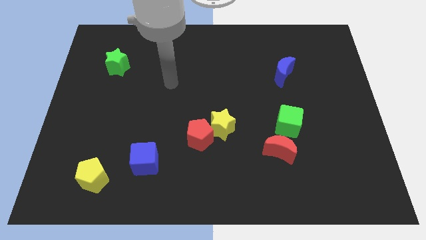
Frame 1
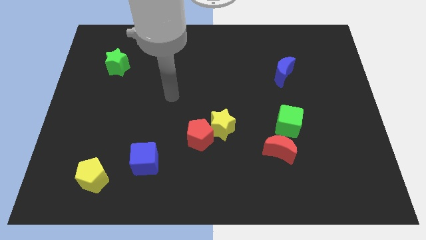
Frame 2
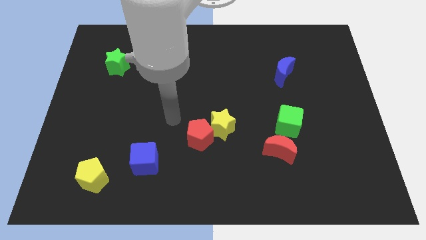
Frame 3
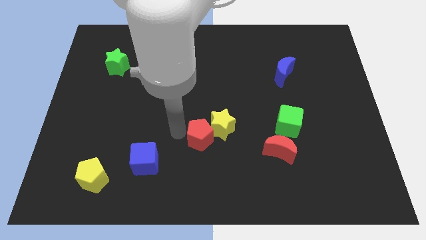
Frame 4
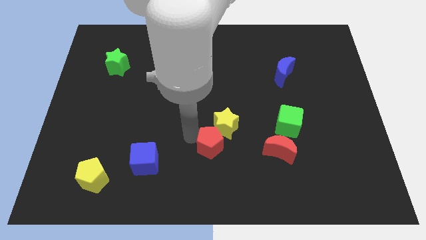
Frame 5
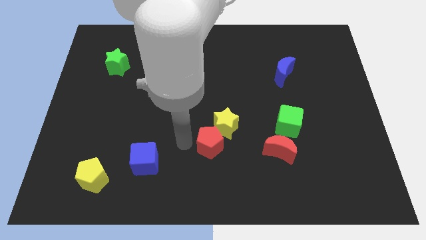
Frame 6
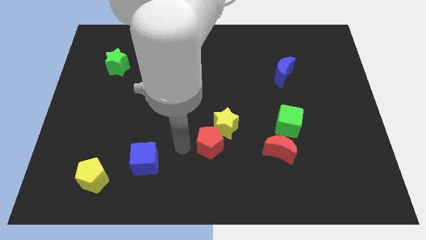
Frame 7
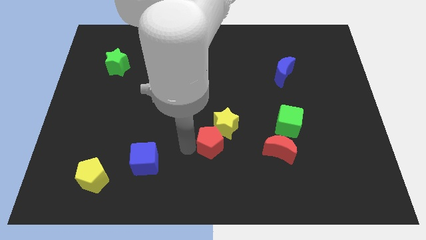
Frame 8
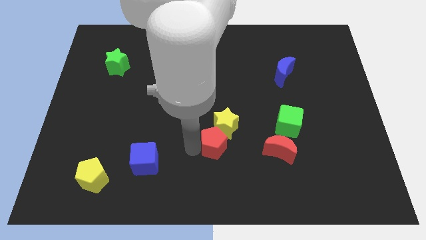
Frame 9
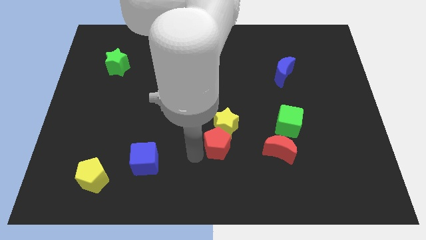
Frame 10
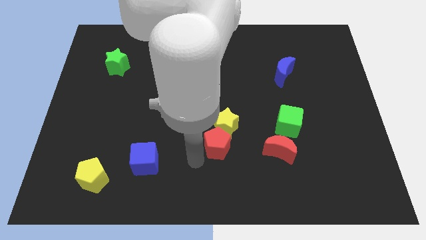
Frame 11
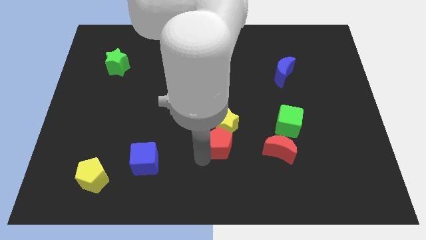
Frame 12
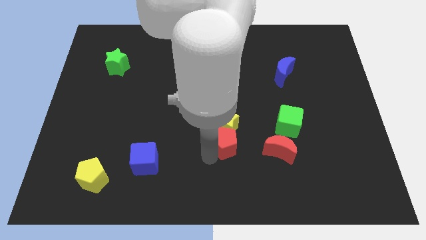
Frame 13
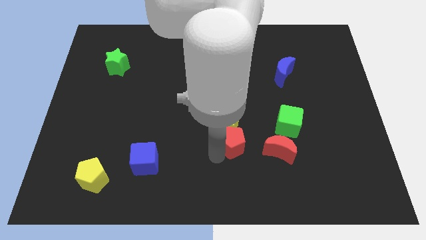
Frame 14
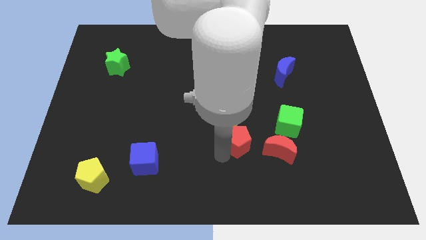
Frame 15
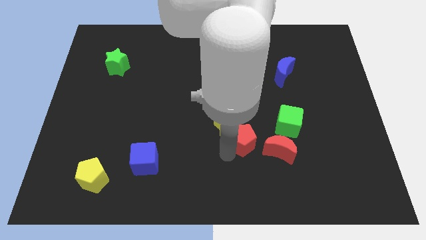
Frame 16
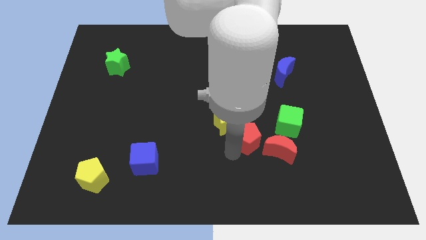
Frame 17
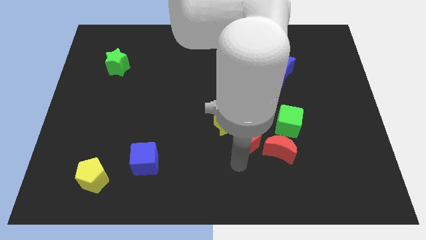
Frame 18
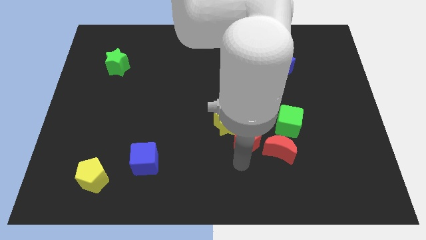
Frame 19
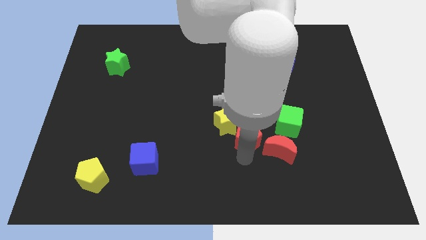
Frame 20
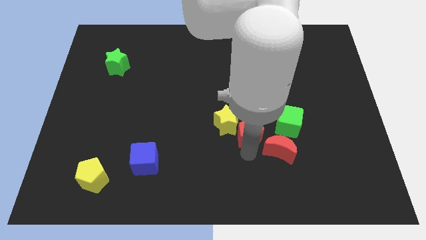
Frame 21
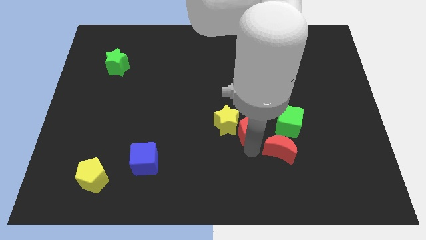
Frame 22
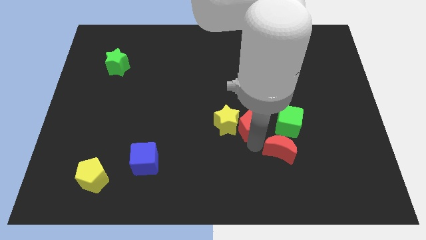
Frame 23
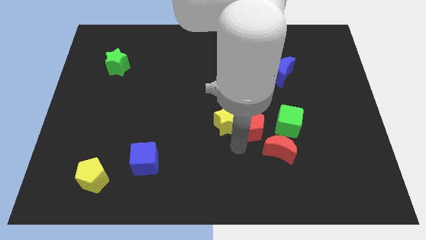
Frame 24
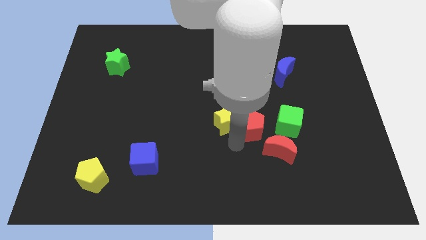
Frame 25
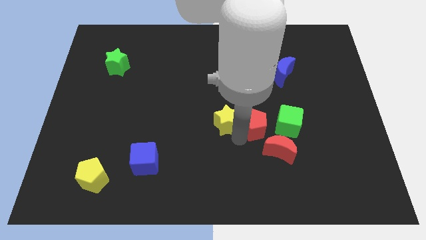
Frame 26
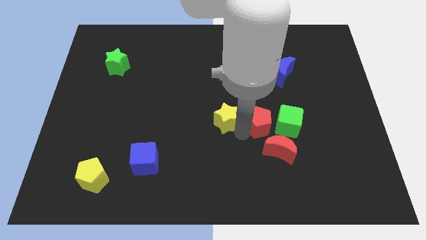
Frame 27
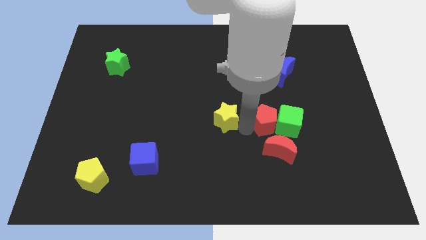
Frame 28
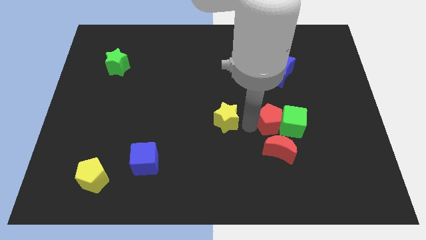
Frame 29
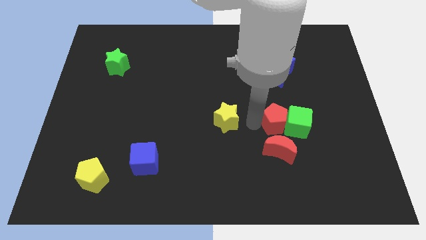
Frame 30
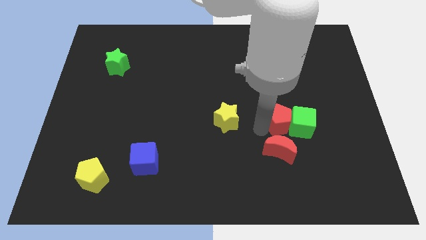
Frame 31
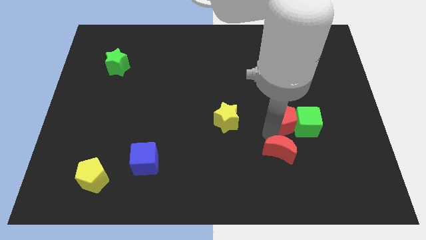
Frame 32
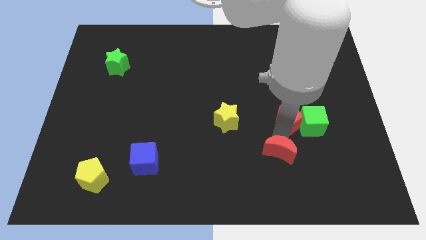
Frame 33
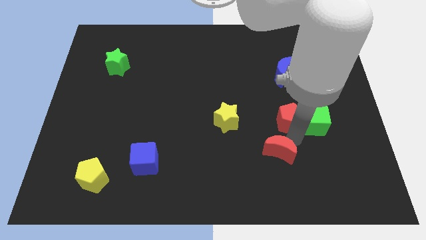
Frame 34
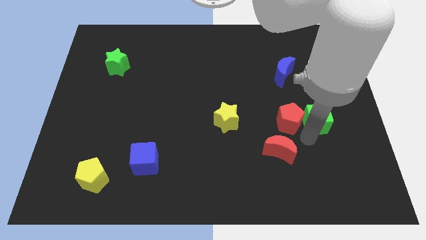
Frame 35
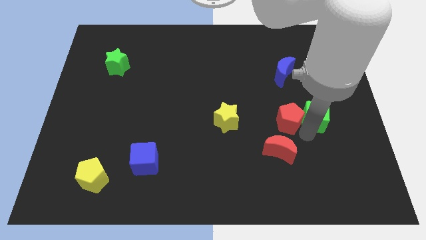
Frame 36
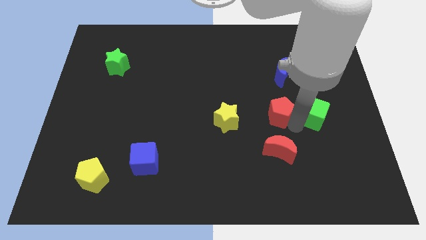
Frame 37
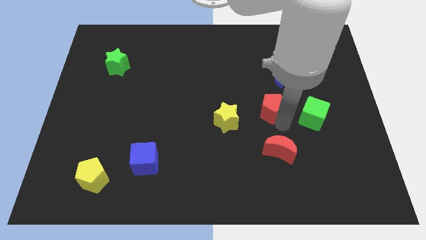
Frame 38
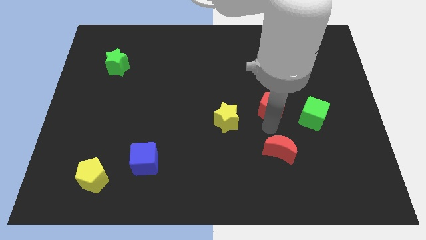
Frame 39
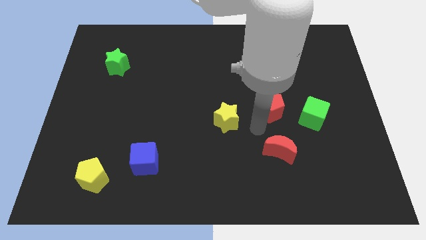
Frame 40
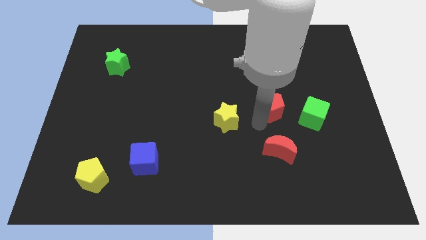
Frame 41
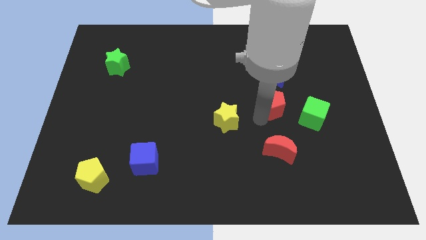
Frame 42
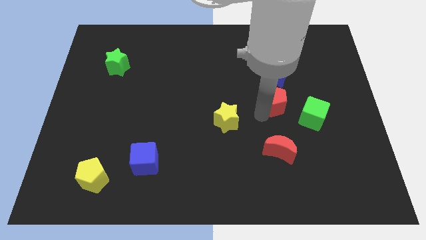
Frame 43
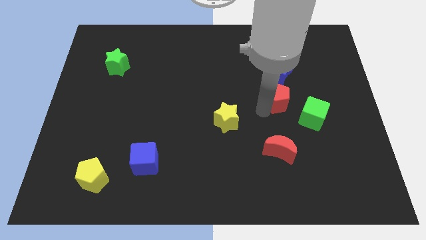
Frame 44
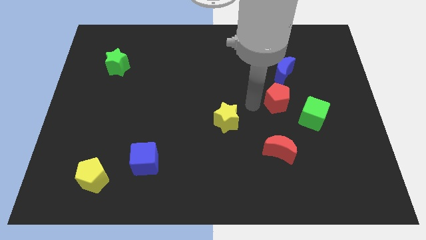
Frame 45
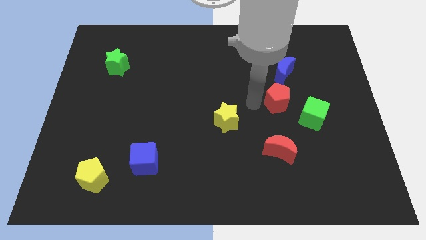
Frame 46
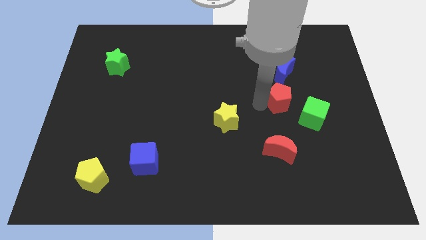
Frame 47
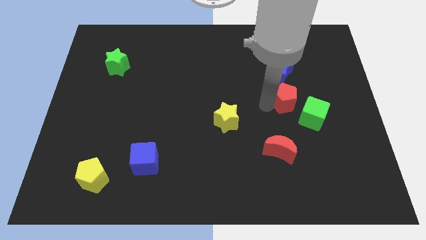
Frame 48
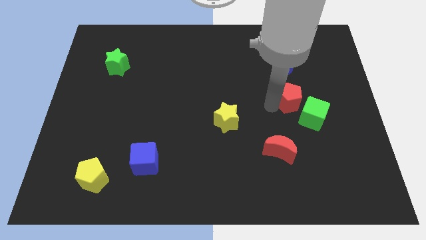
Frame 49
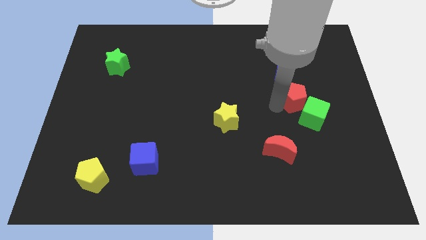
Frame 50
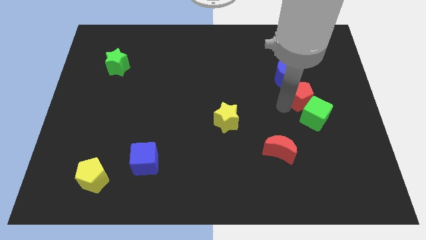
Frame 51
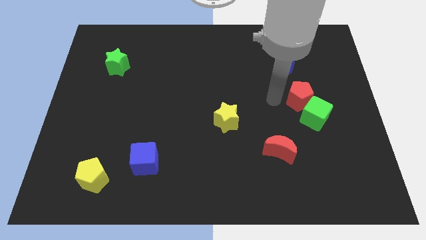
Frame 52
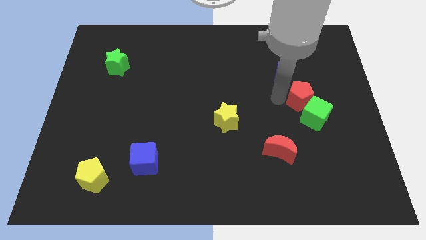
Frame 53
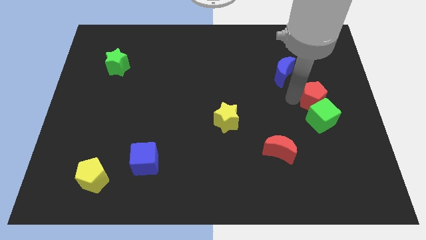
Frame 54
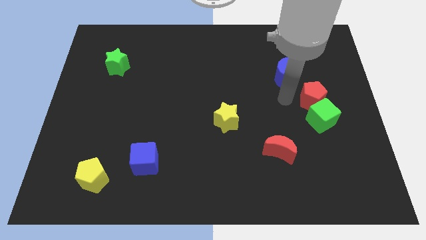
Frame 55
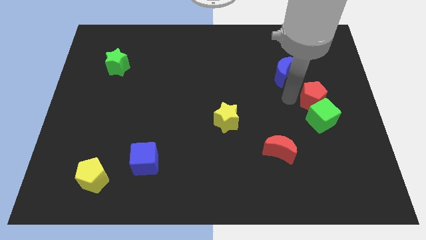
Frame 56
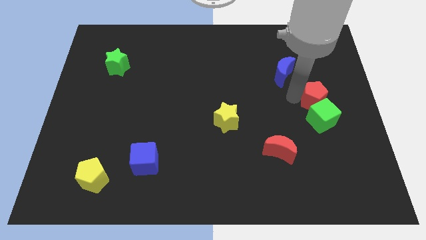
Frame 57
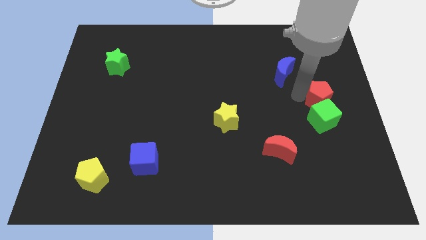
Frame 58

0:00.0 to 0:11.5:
slide the red pentagon to the right side

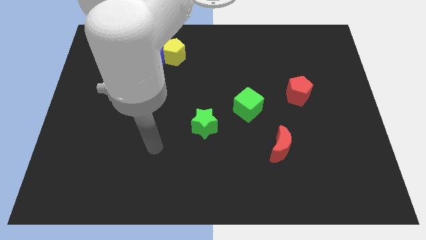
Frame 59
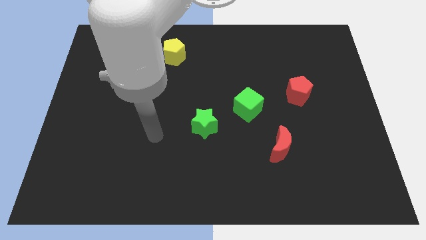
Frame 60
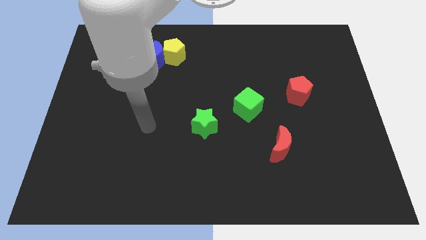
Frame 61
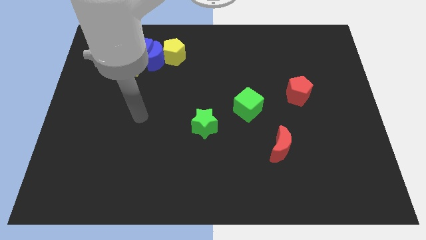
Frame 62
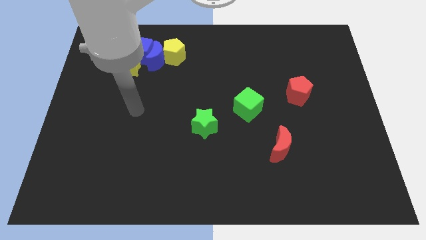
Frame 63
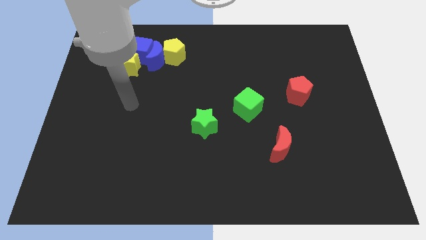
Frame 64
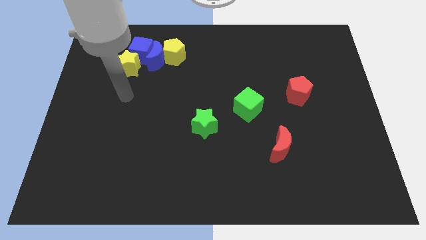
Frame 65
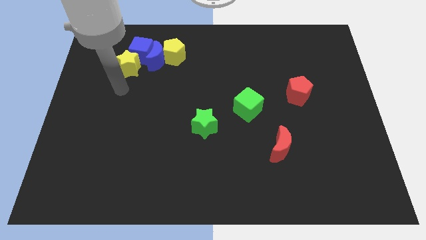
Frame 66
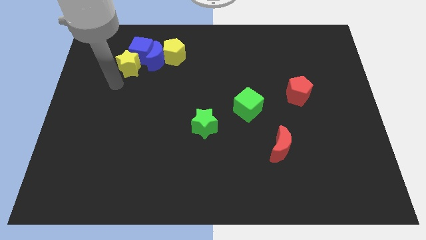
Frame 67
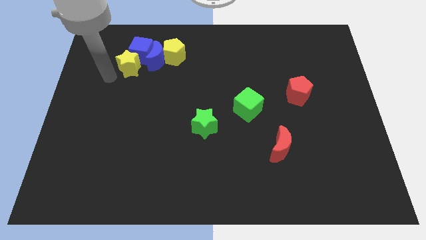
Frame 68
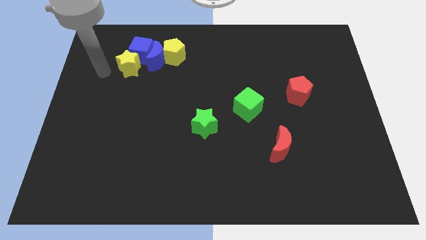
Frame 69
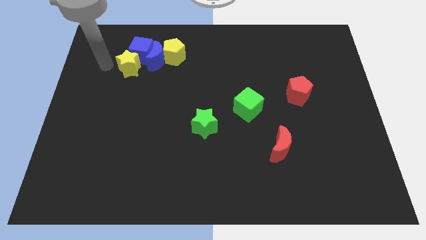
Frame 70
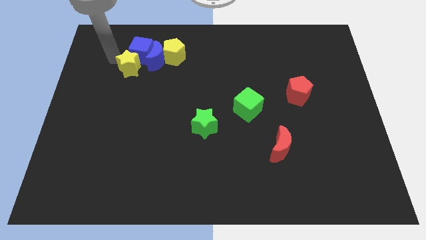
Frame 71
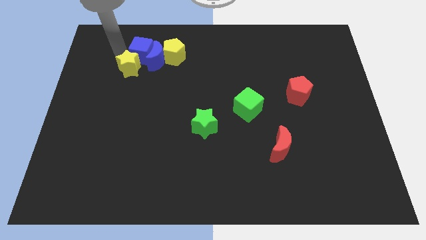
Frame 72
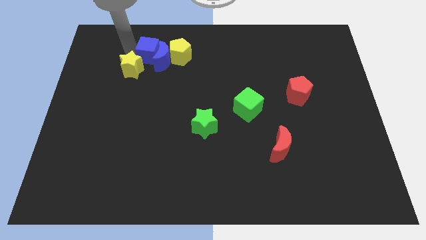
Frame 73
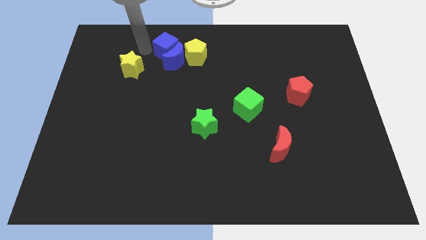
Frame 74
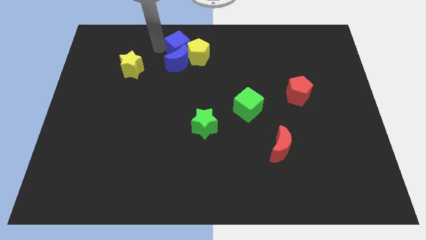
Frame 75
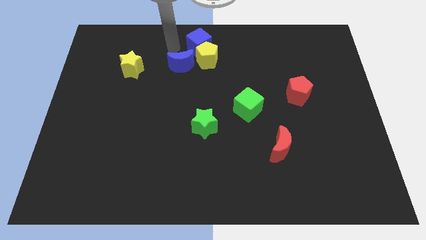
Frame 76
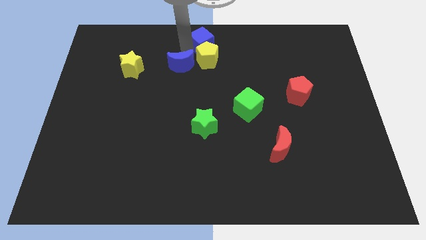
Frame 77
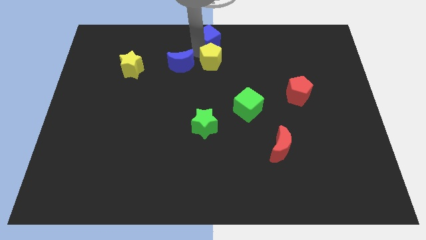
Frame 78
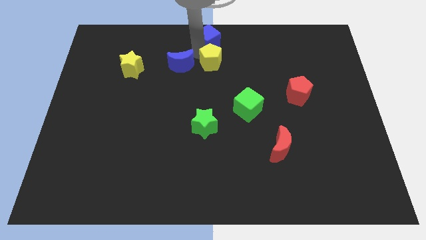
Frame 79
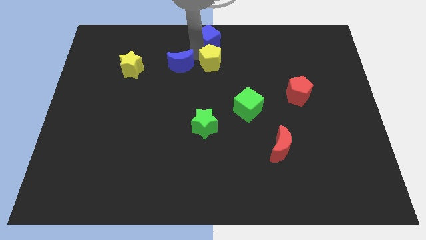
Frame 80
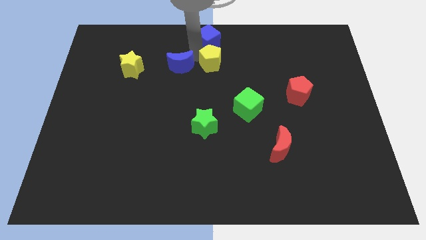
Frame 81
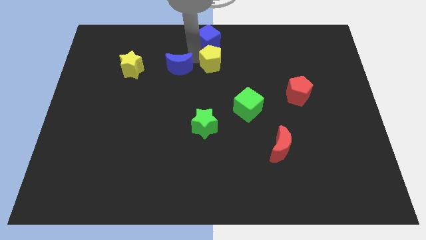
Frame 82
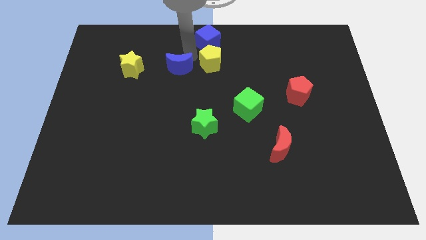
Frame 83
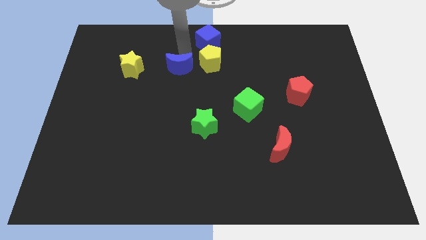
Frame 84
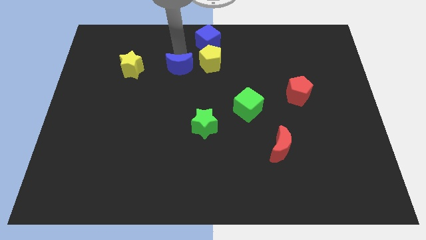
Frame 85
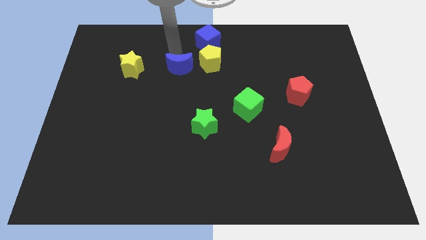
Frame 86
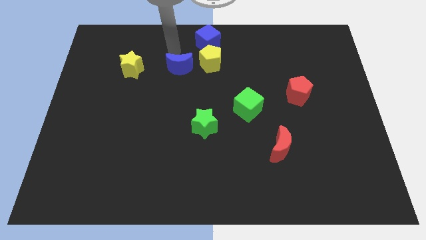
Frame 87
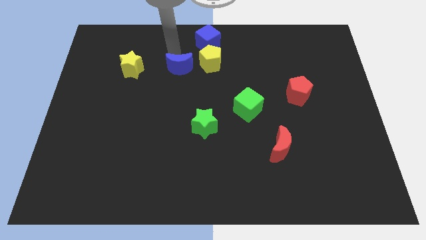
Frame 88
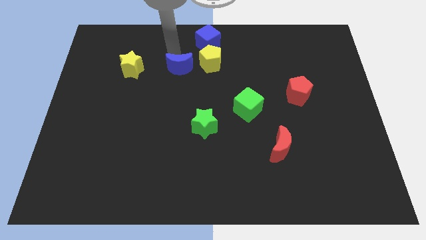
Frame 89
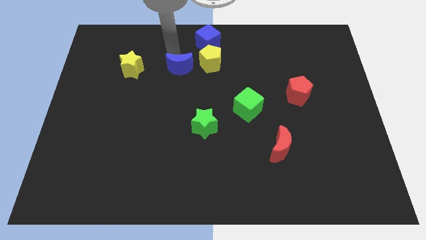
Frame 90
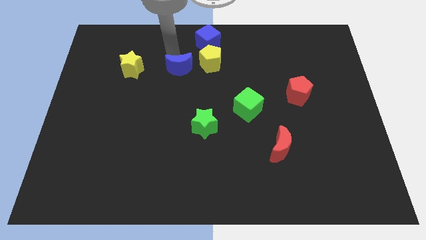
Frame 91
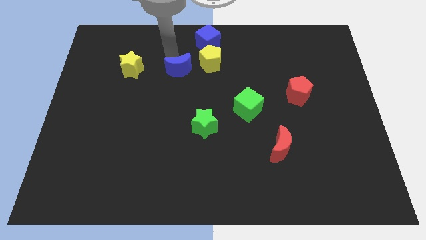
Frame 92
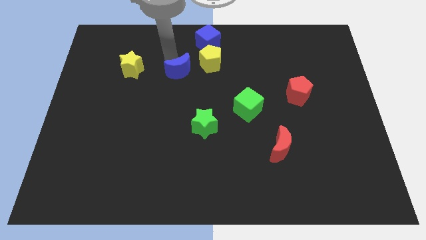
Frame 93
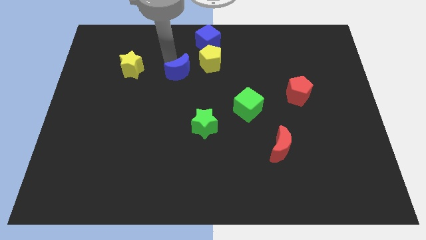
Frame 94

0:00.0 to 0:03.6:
move the blue moon to the middle
